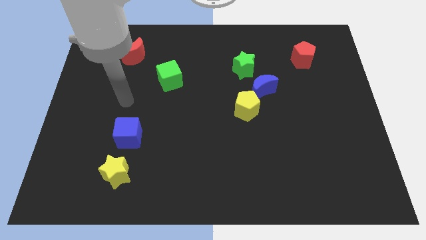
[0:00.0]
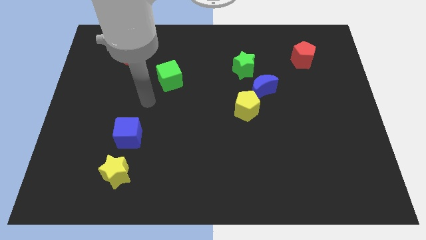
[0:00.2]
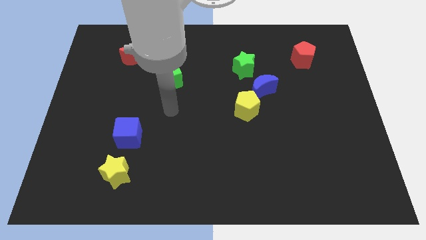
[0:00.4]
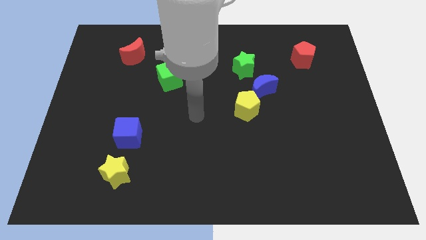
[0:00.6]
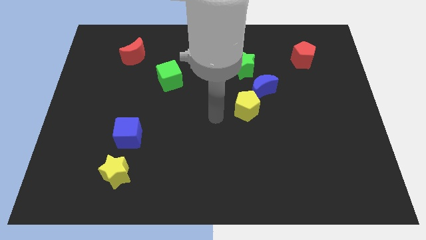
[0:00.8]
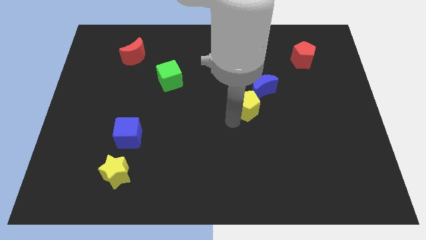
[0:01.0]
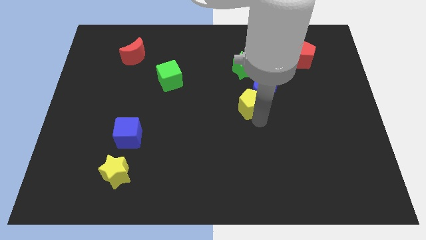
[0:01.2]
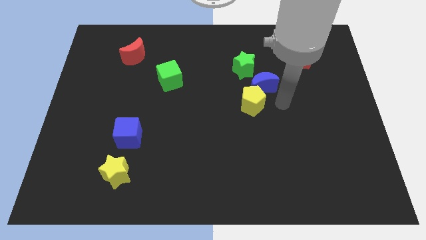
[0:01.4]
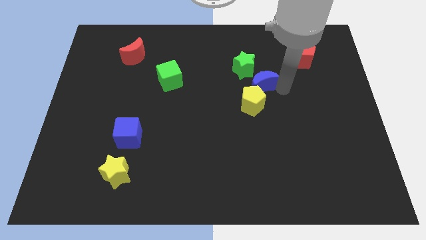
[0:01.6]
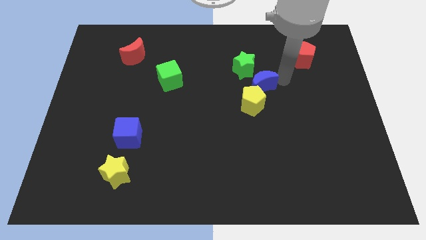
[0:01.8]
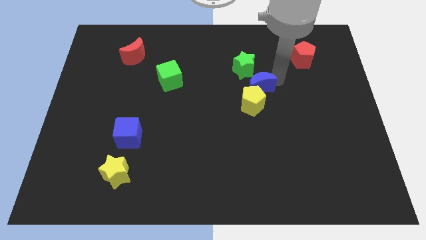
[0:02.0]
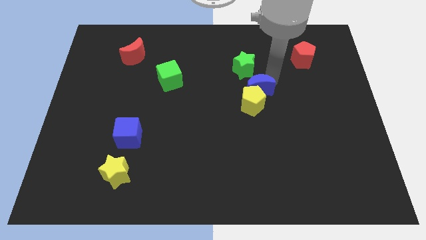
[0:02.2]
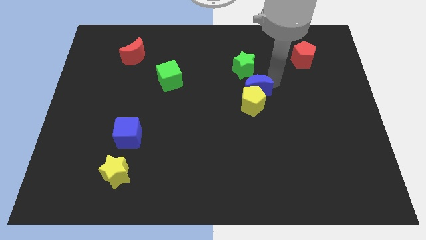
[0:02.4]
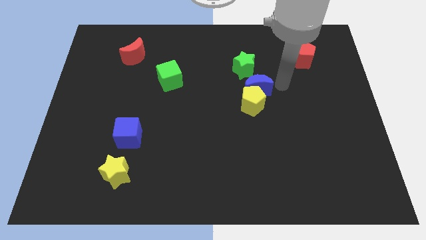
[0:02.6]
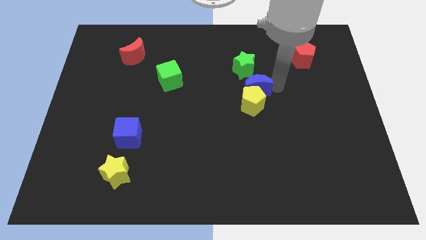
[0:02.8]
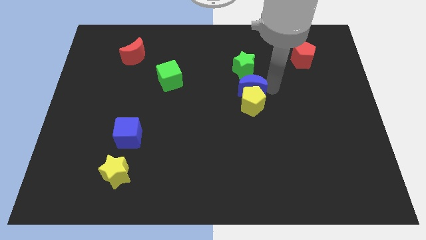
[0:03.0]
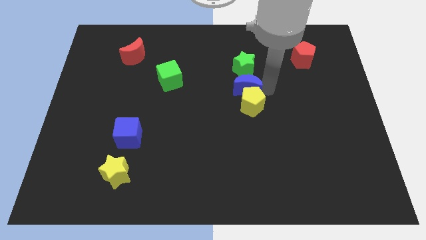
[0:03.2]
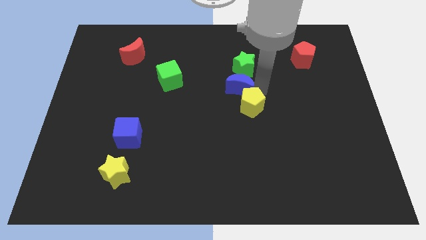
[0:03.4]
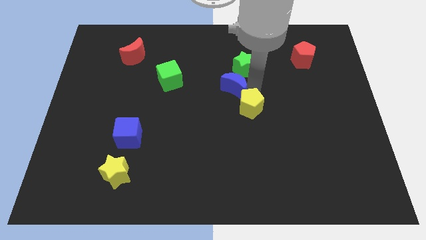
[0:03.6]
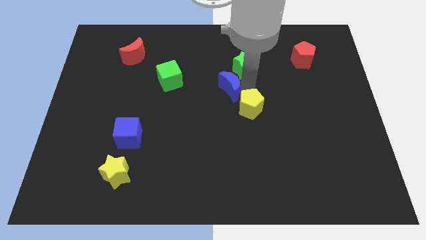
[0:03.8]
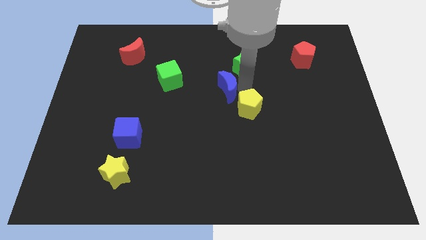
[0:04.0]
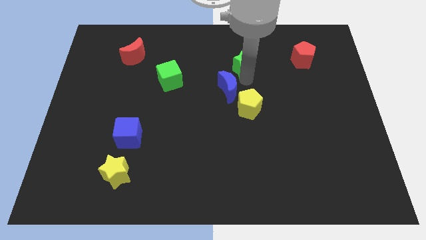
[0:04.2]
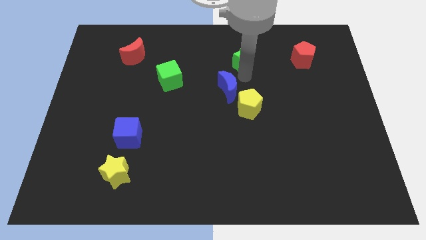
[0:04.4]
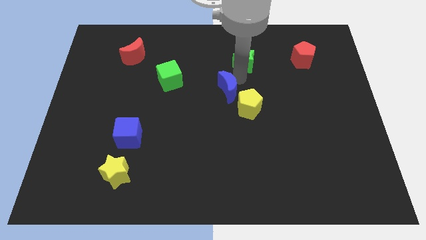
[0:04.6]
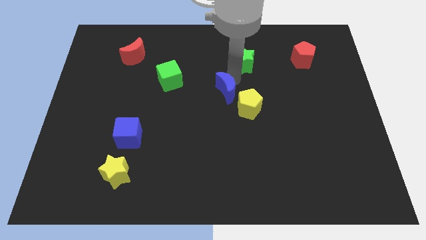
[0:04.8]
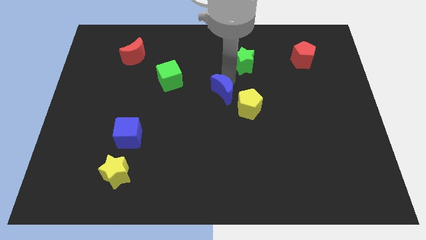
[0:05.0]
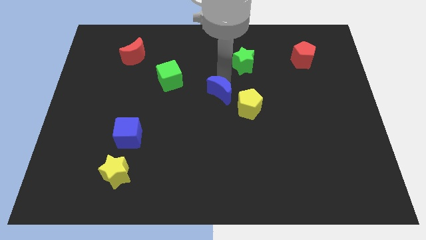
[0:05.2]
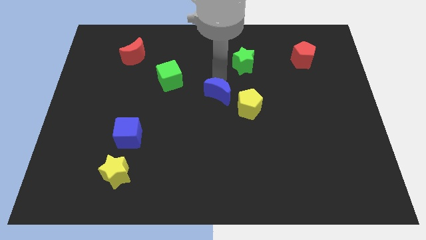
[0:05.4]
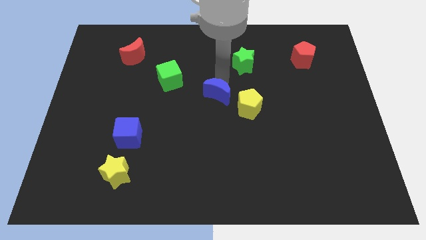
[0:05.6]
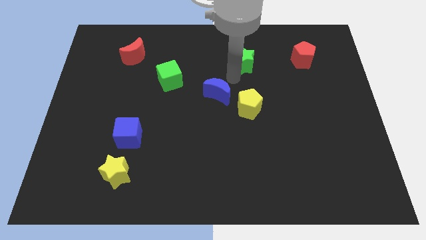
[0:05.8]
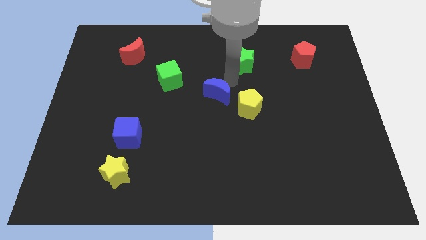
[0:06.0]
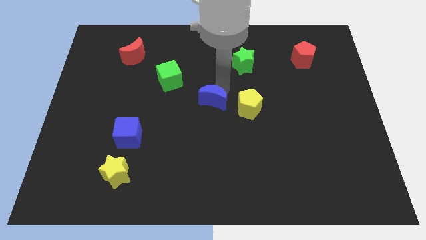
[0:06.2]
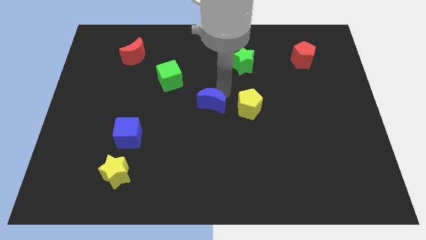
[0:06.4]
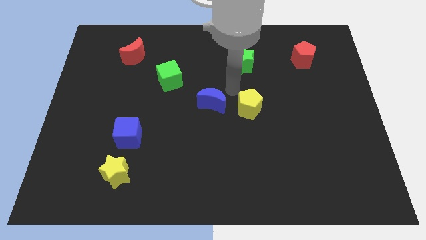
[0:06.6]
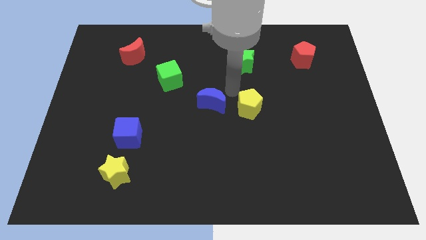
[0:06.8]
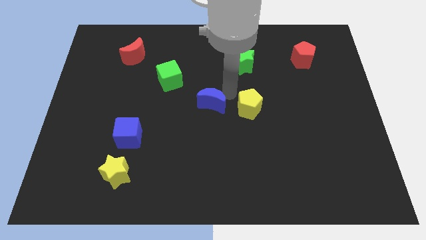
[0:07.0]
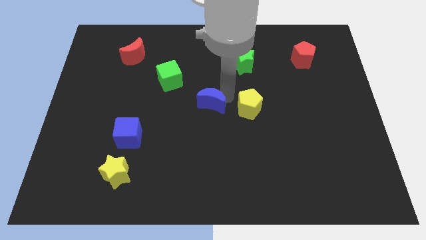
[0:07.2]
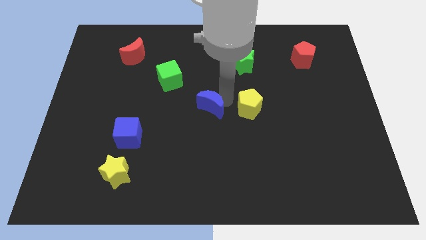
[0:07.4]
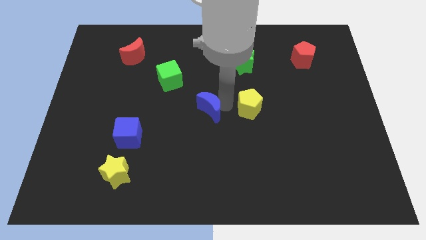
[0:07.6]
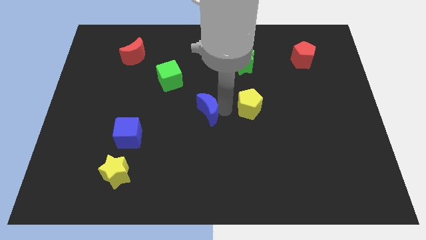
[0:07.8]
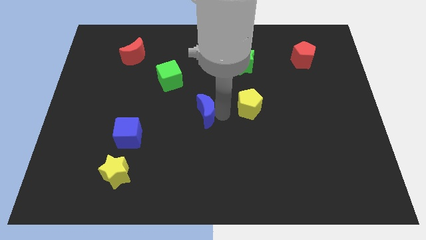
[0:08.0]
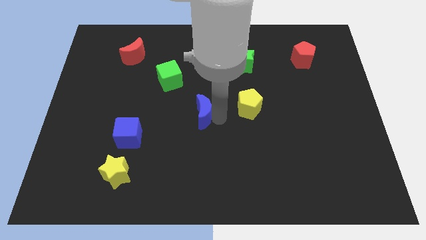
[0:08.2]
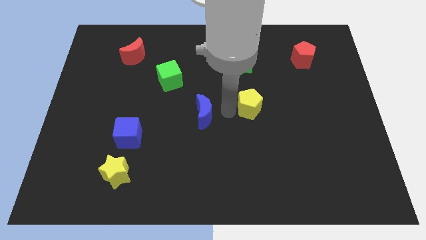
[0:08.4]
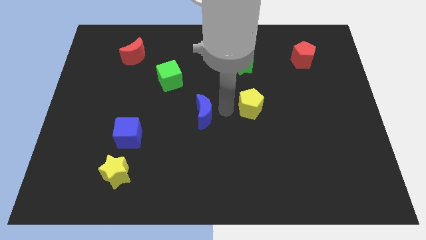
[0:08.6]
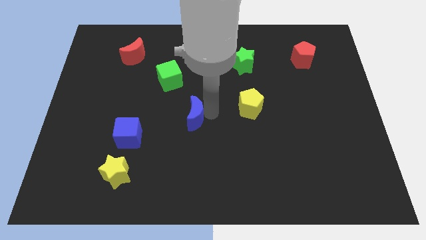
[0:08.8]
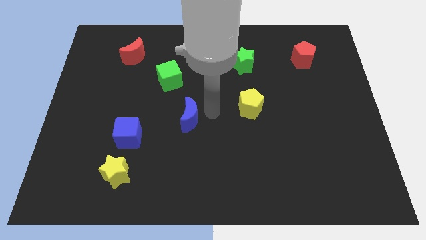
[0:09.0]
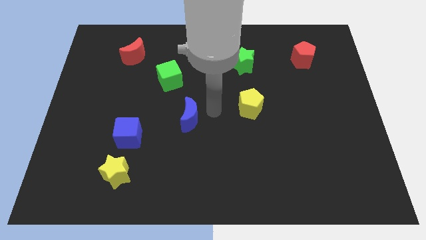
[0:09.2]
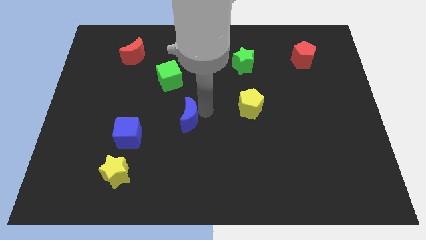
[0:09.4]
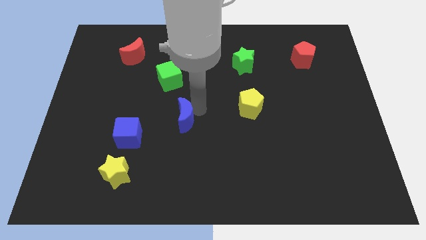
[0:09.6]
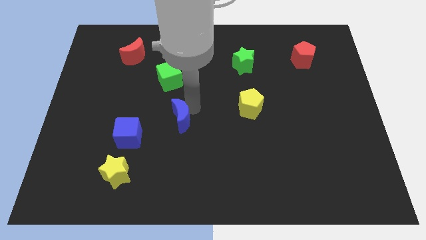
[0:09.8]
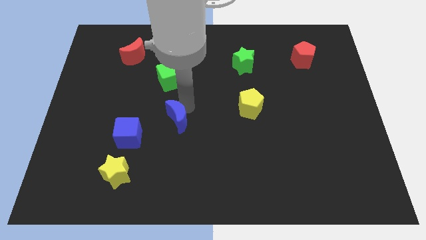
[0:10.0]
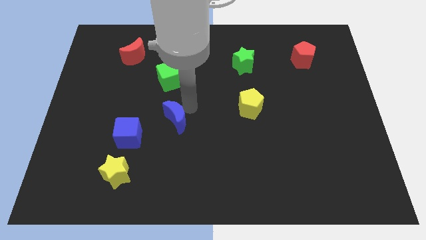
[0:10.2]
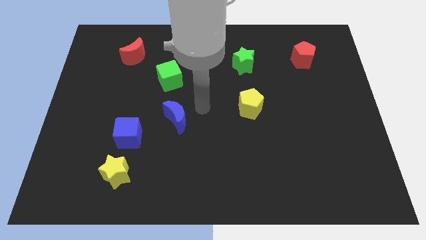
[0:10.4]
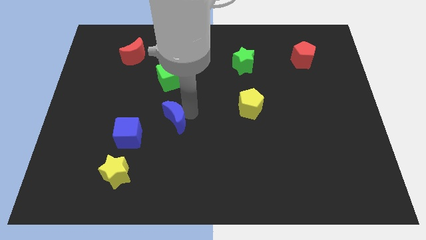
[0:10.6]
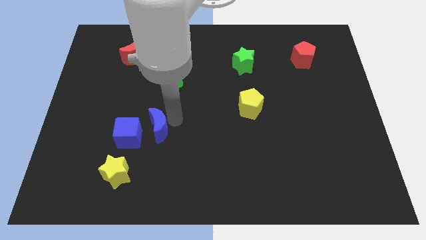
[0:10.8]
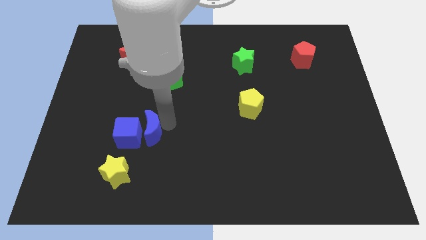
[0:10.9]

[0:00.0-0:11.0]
move the blue moon towards the blue cube

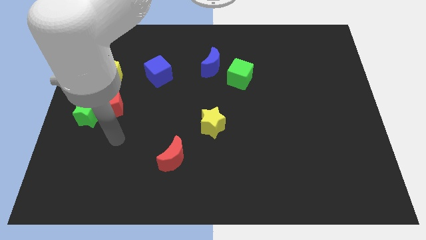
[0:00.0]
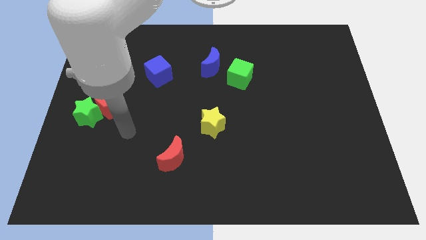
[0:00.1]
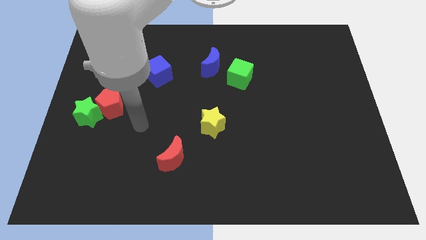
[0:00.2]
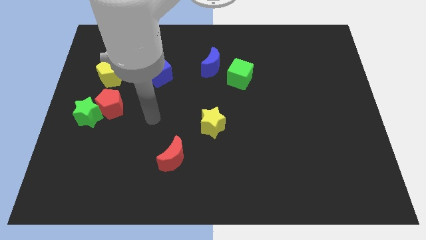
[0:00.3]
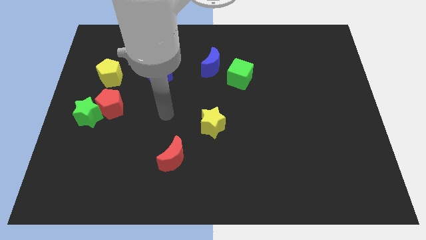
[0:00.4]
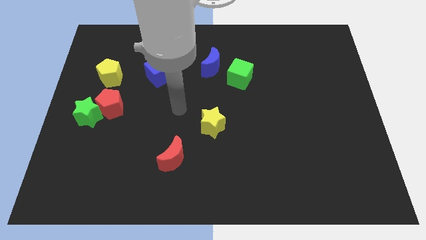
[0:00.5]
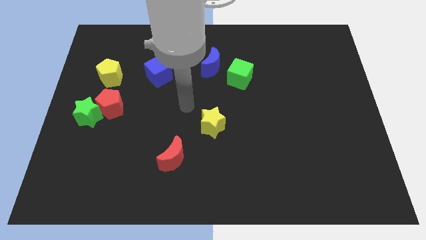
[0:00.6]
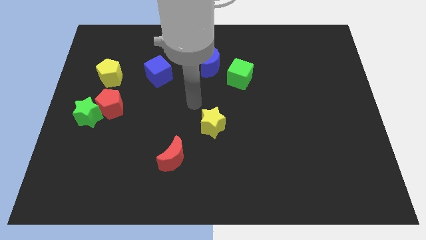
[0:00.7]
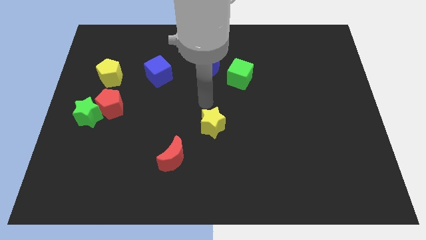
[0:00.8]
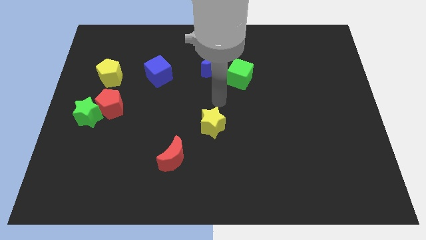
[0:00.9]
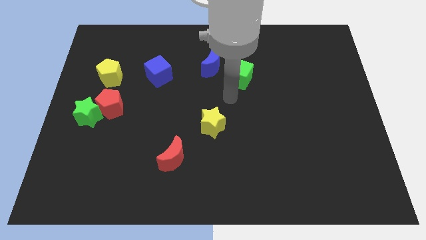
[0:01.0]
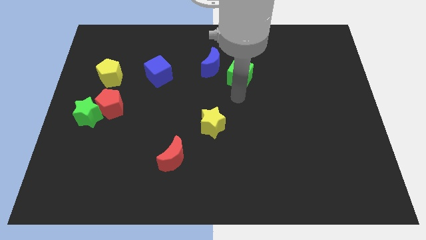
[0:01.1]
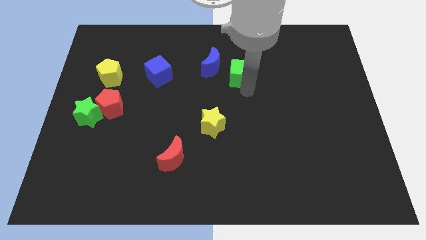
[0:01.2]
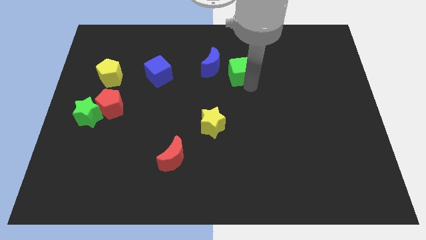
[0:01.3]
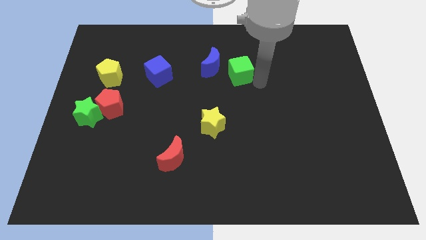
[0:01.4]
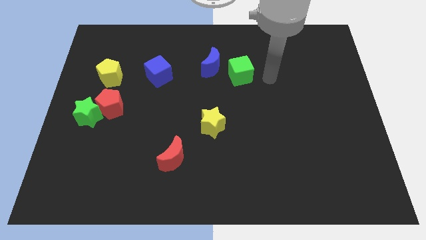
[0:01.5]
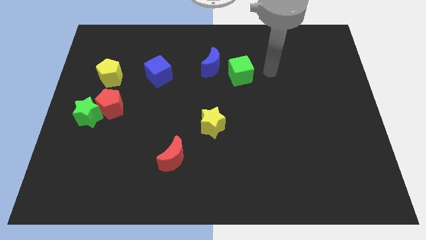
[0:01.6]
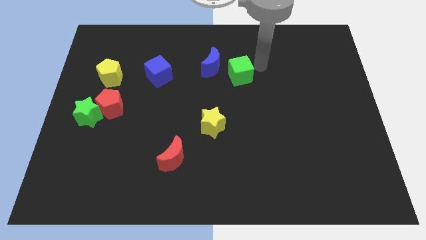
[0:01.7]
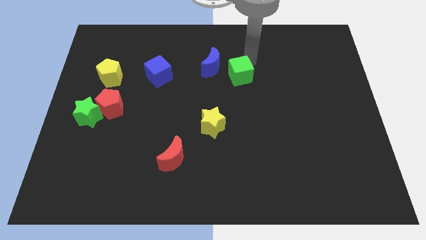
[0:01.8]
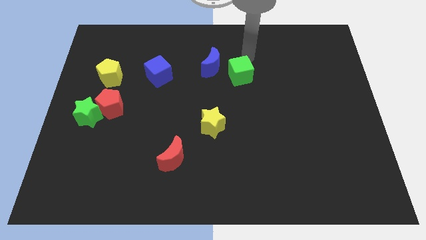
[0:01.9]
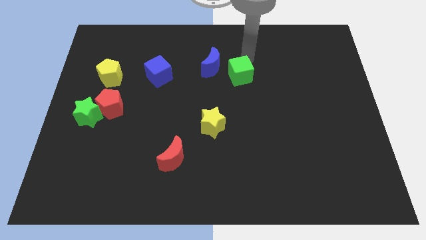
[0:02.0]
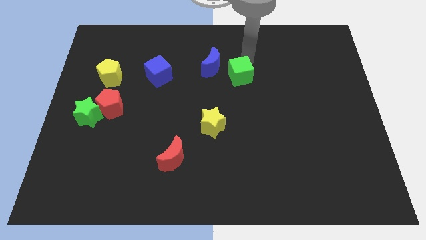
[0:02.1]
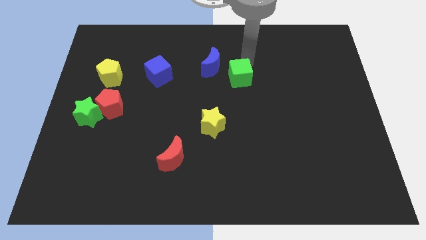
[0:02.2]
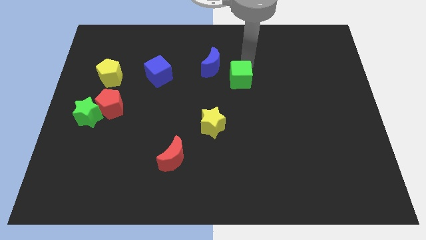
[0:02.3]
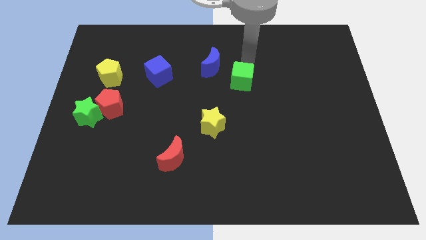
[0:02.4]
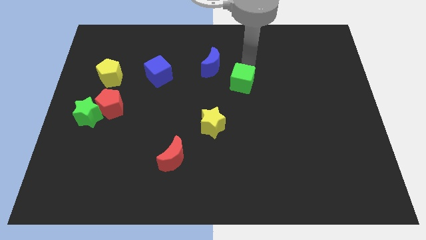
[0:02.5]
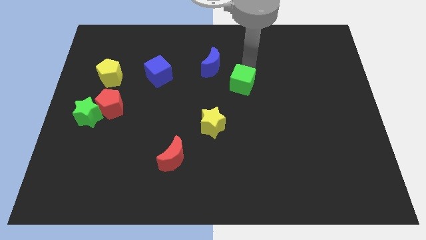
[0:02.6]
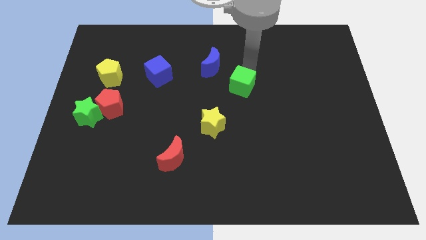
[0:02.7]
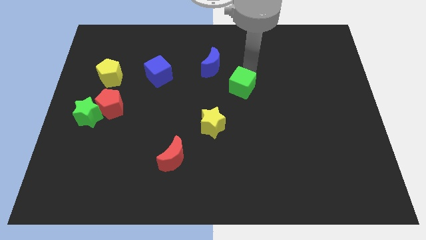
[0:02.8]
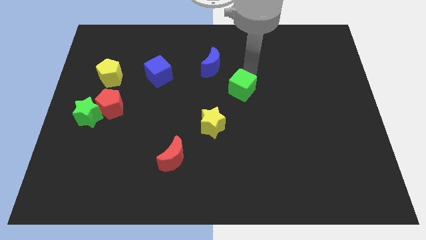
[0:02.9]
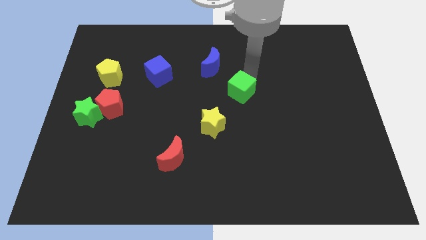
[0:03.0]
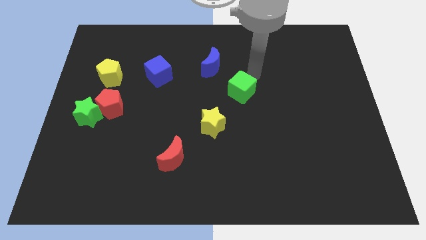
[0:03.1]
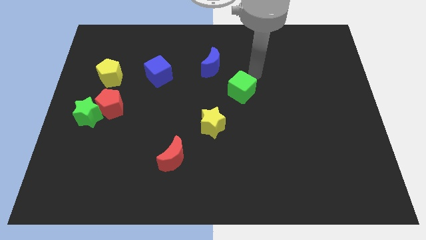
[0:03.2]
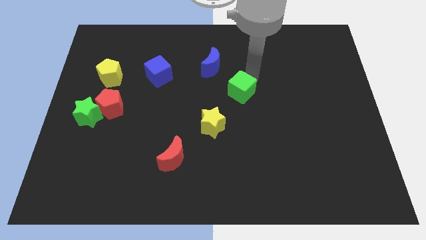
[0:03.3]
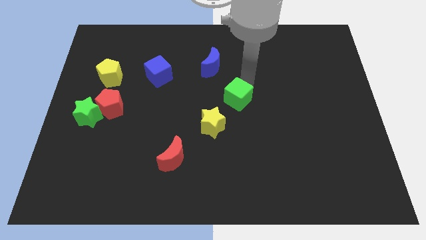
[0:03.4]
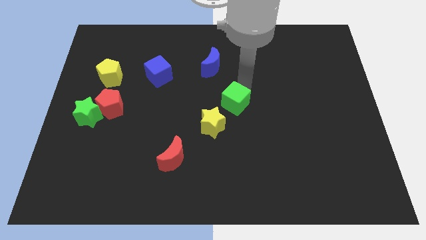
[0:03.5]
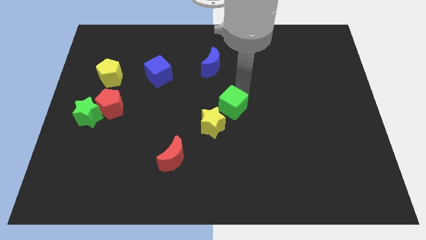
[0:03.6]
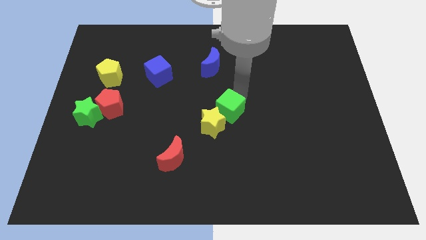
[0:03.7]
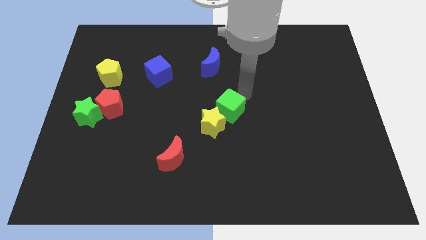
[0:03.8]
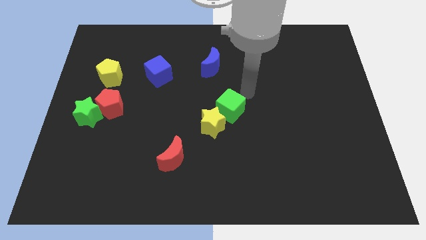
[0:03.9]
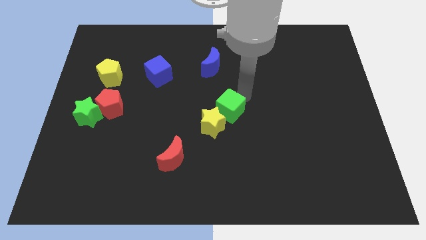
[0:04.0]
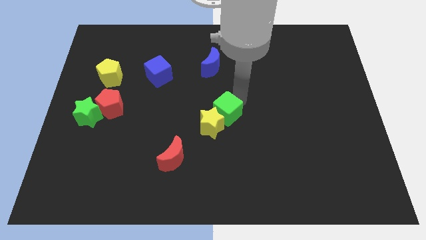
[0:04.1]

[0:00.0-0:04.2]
move the green cube towards the yellow star
